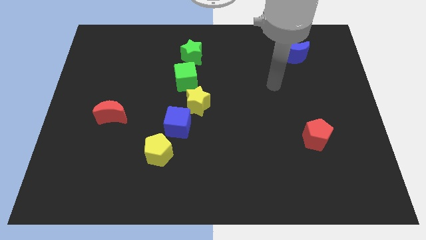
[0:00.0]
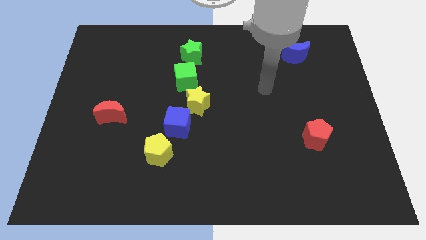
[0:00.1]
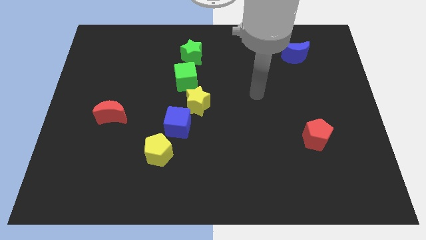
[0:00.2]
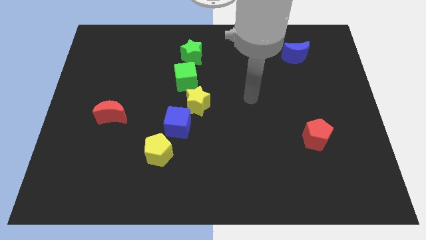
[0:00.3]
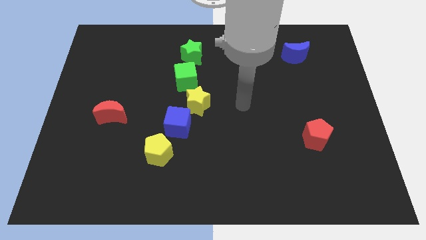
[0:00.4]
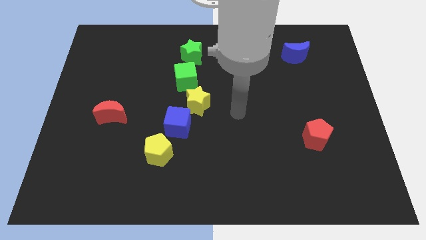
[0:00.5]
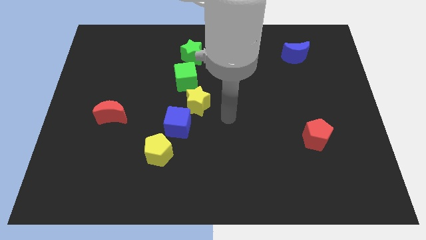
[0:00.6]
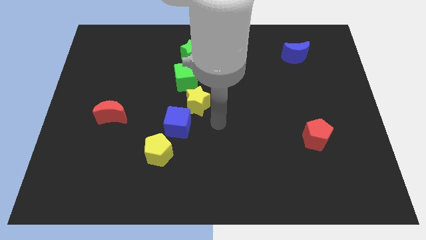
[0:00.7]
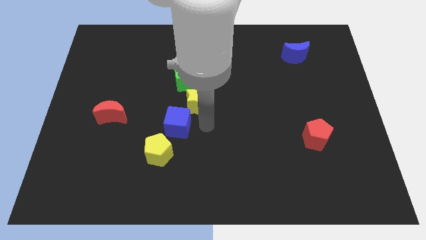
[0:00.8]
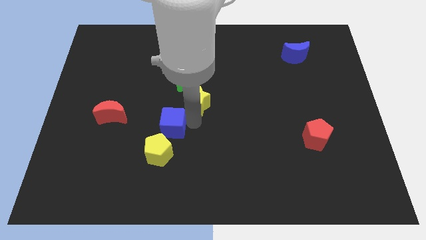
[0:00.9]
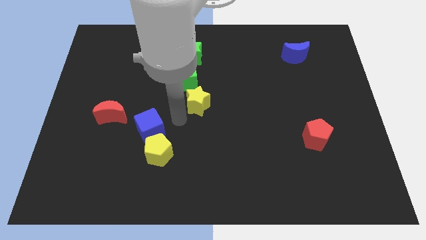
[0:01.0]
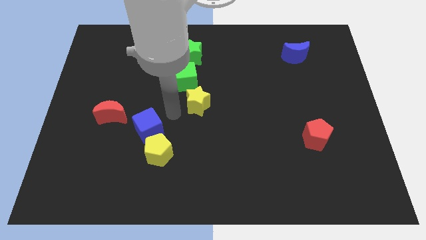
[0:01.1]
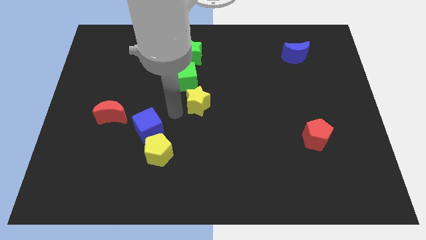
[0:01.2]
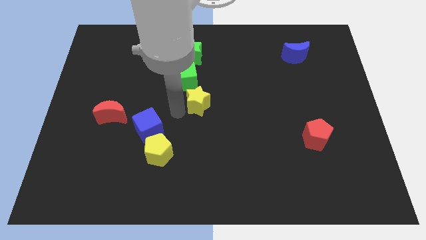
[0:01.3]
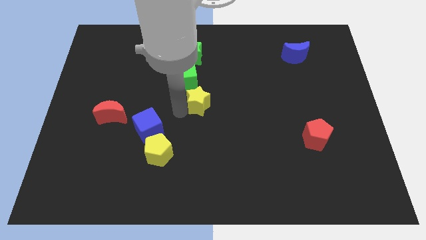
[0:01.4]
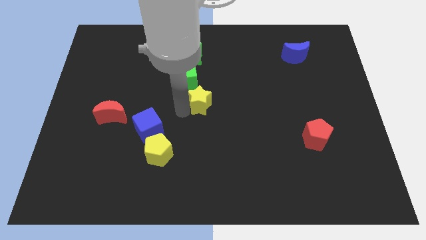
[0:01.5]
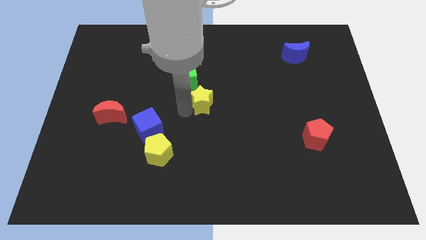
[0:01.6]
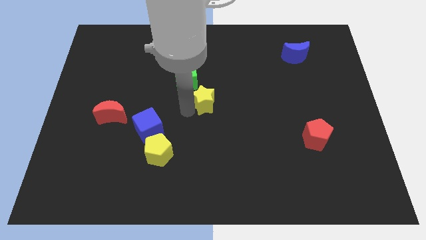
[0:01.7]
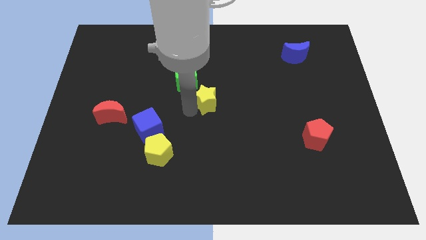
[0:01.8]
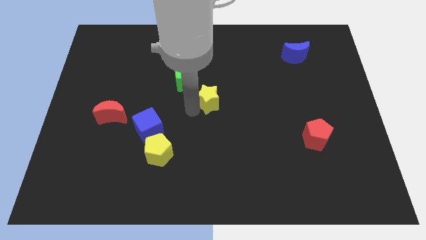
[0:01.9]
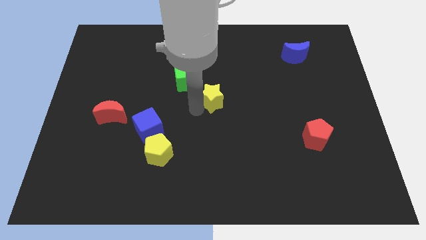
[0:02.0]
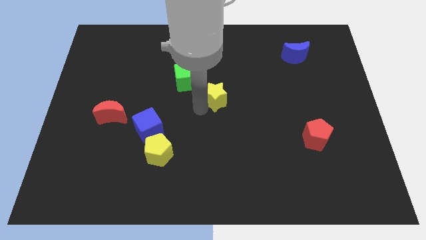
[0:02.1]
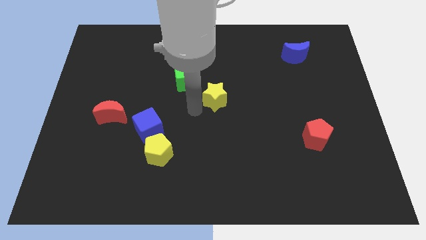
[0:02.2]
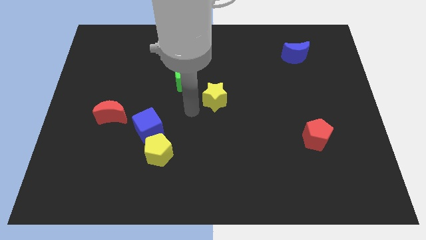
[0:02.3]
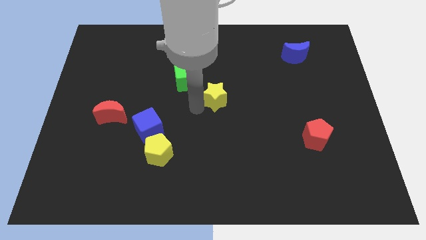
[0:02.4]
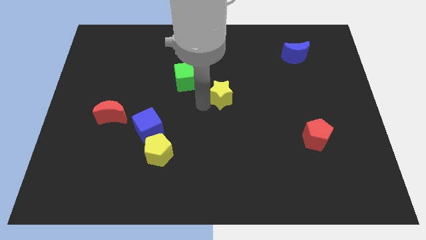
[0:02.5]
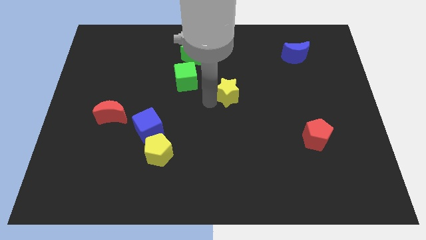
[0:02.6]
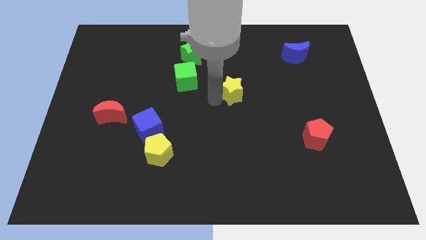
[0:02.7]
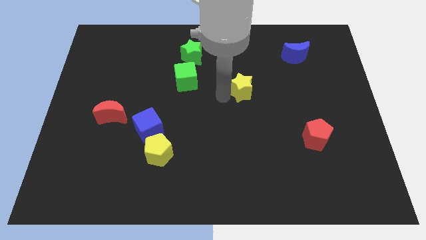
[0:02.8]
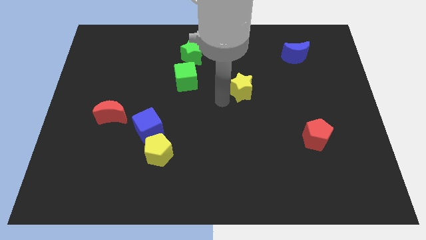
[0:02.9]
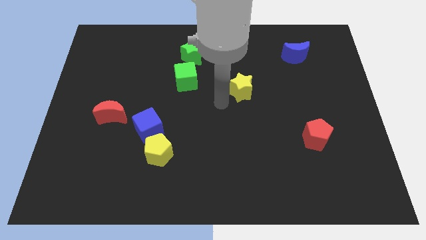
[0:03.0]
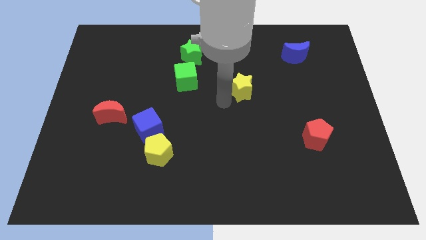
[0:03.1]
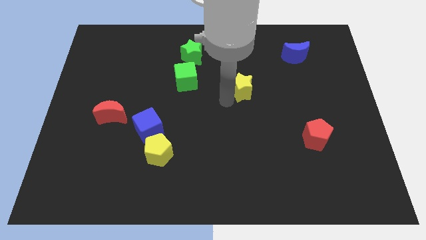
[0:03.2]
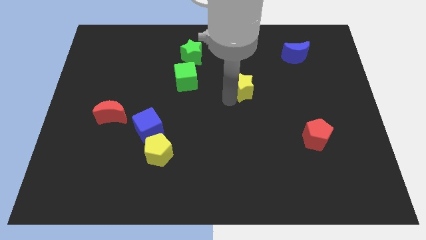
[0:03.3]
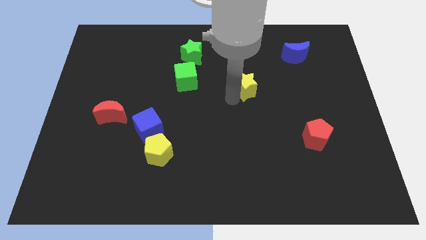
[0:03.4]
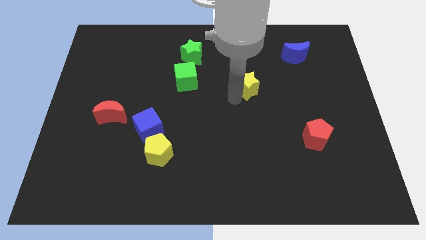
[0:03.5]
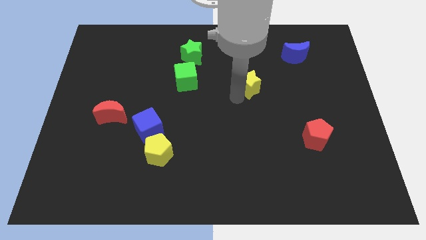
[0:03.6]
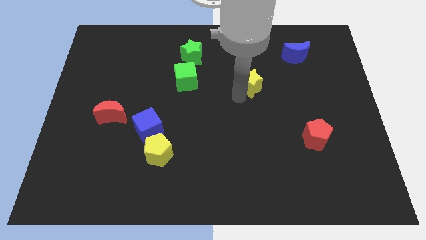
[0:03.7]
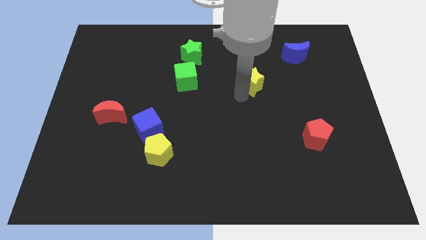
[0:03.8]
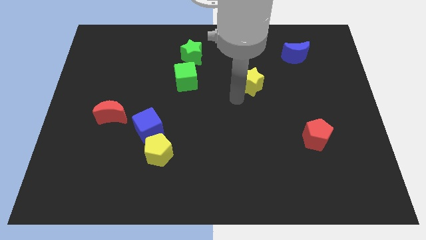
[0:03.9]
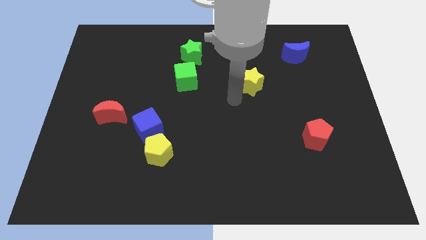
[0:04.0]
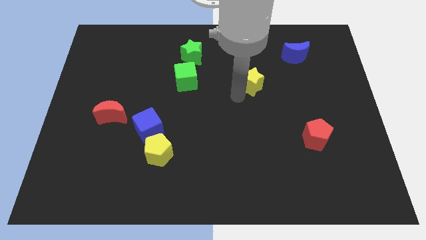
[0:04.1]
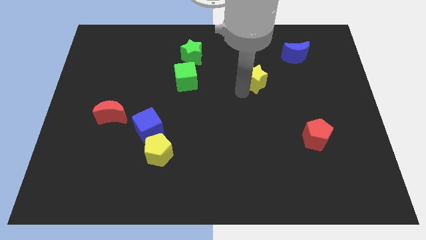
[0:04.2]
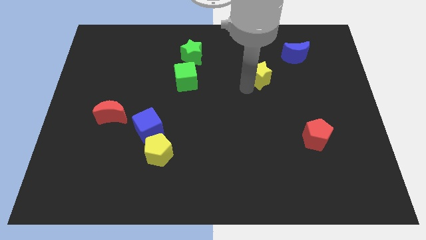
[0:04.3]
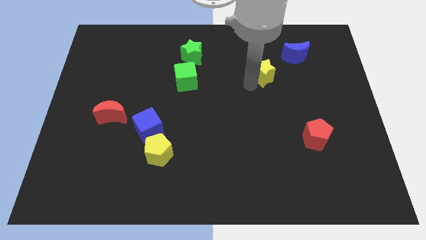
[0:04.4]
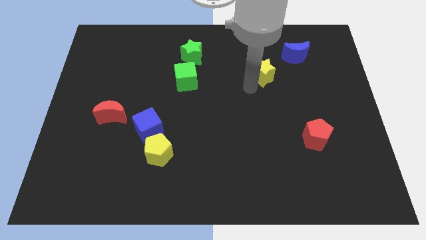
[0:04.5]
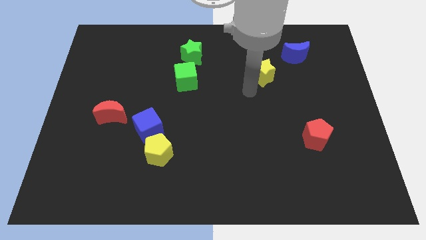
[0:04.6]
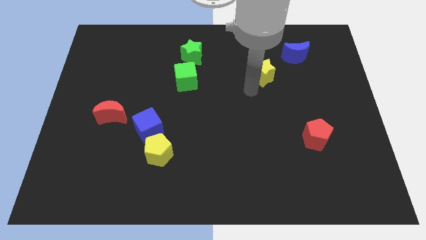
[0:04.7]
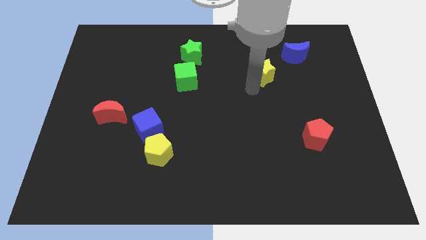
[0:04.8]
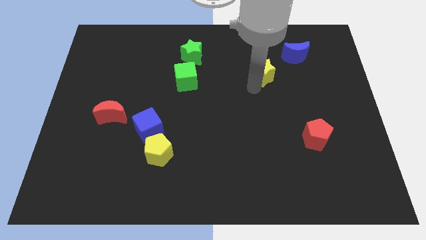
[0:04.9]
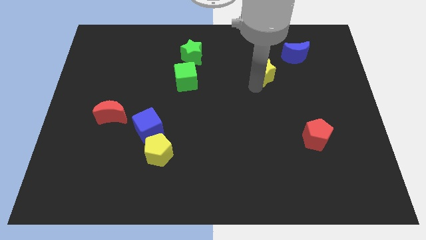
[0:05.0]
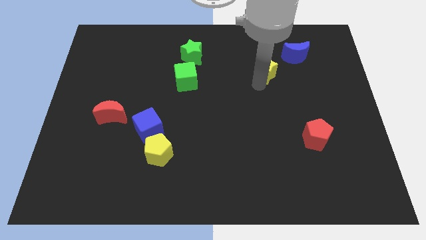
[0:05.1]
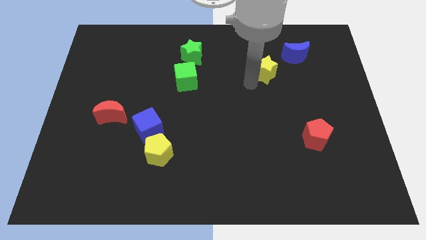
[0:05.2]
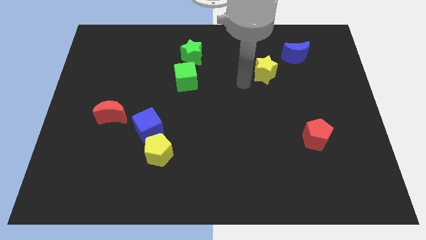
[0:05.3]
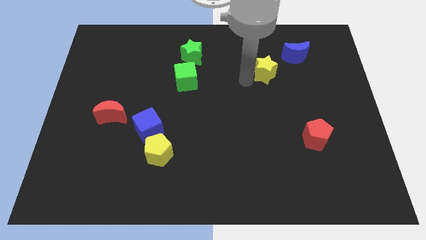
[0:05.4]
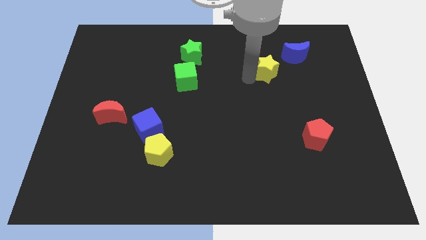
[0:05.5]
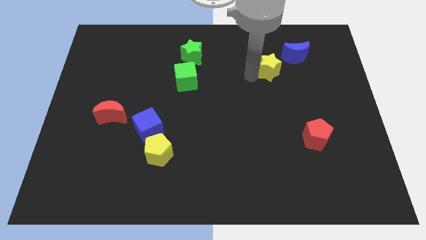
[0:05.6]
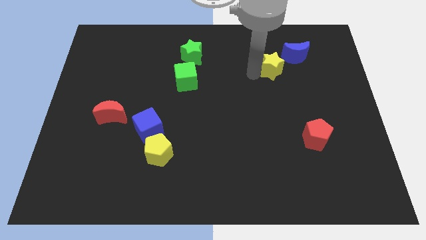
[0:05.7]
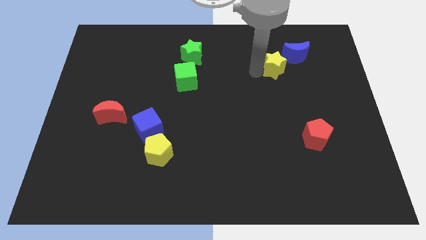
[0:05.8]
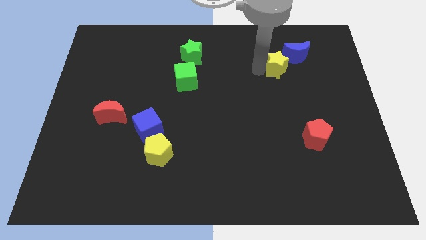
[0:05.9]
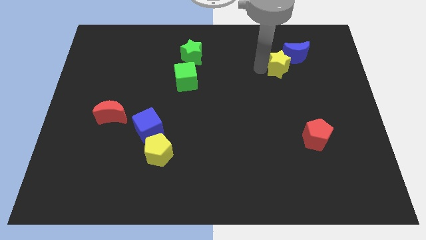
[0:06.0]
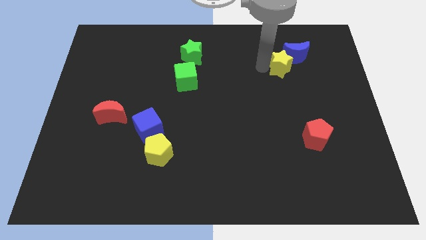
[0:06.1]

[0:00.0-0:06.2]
slide the yellow star close to the blue moon

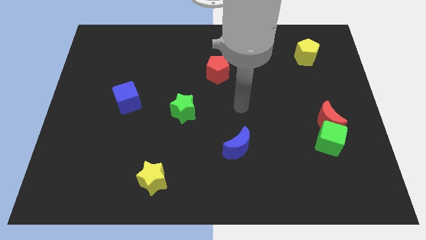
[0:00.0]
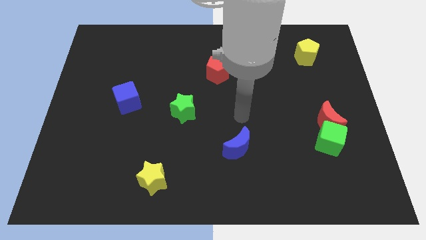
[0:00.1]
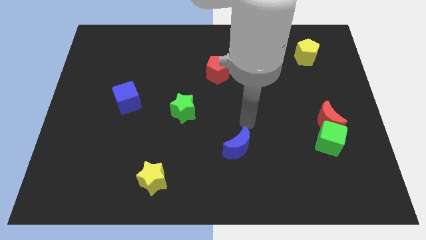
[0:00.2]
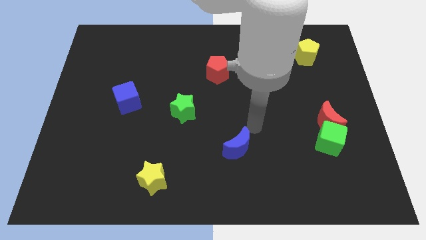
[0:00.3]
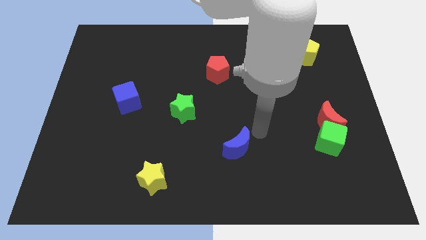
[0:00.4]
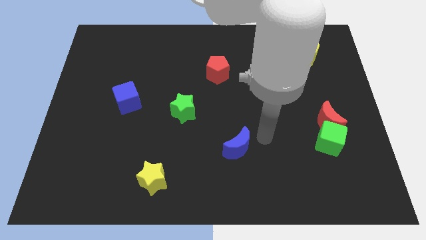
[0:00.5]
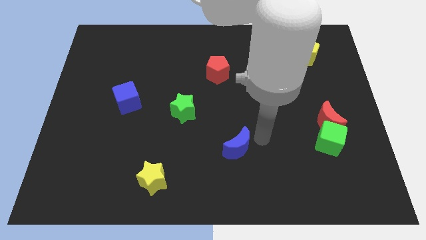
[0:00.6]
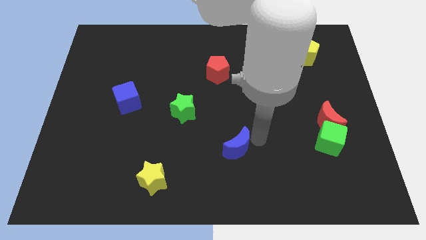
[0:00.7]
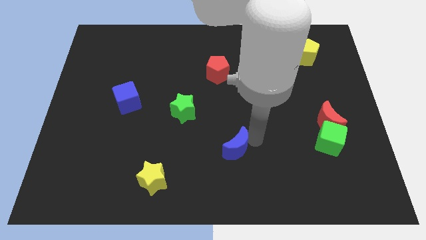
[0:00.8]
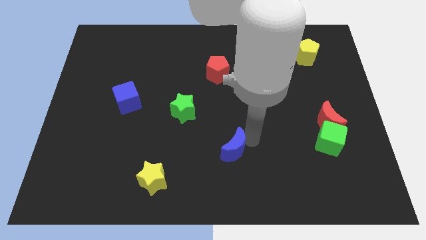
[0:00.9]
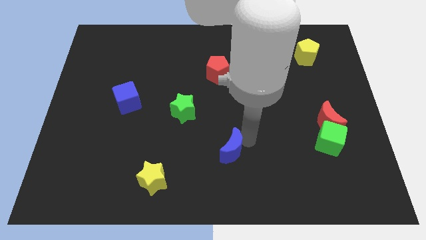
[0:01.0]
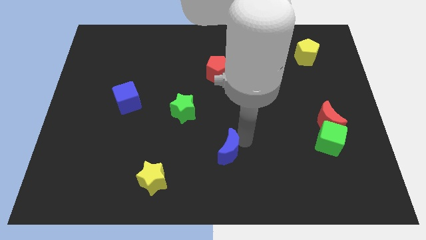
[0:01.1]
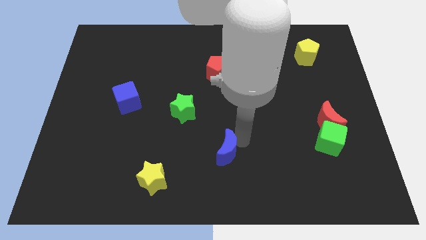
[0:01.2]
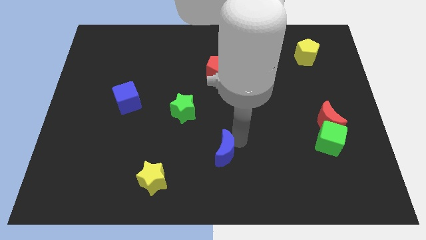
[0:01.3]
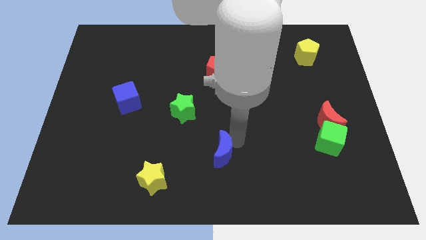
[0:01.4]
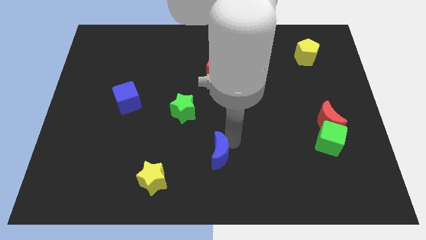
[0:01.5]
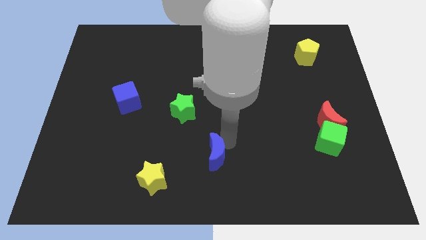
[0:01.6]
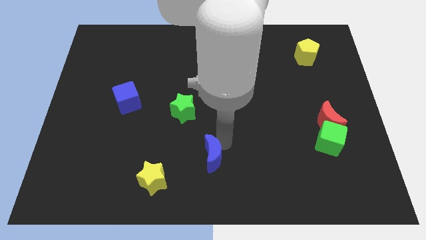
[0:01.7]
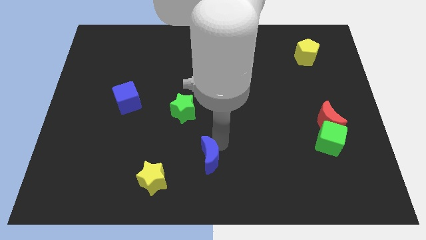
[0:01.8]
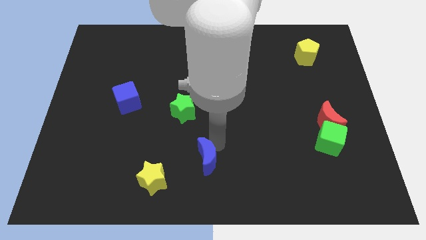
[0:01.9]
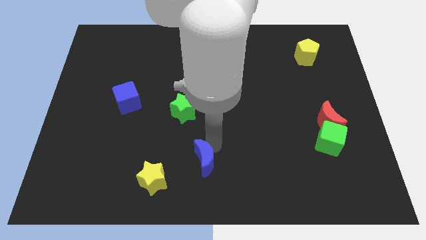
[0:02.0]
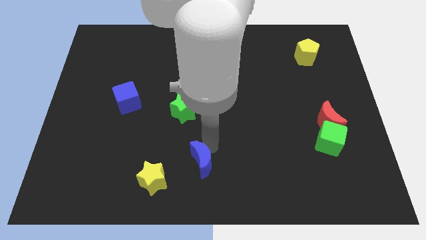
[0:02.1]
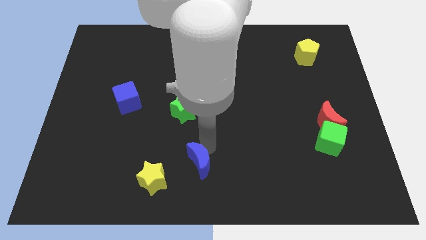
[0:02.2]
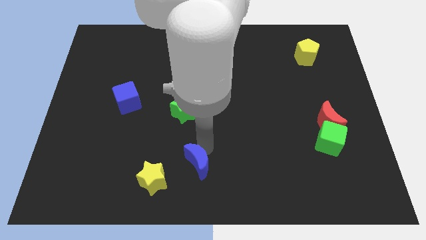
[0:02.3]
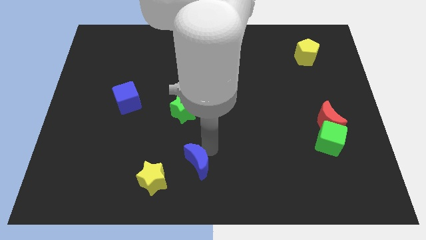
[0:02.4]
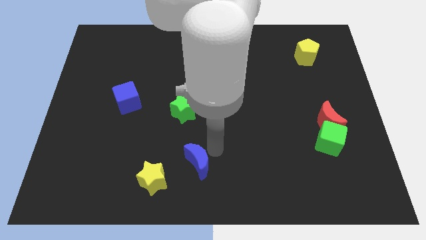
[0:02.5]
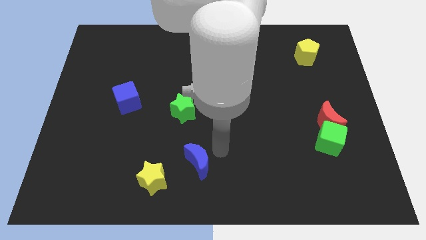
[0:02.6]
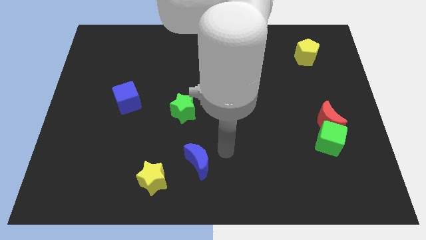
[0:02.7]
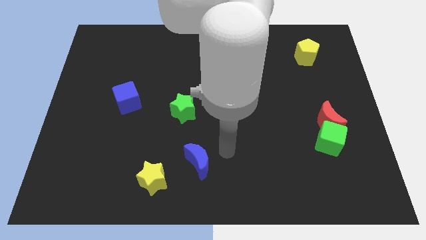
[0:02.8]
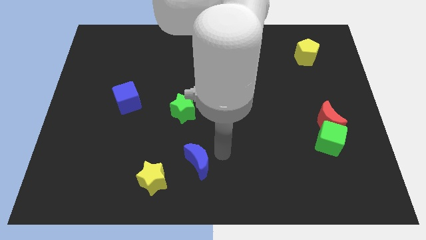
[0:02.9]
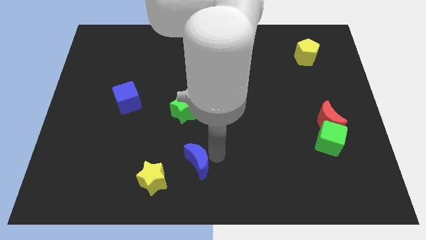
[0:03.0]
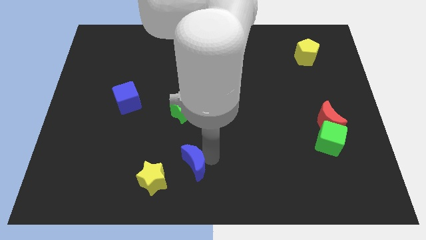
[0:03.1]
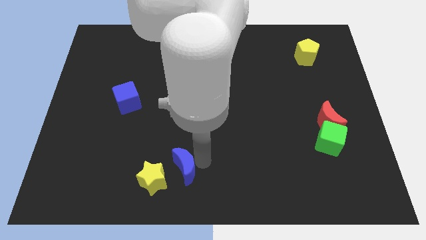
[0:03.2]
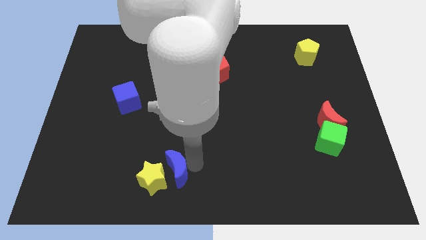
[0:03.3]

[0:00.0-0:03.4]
push the blue moon to the yellow star
